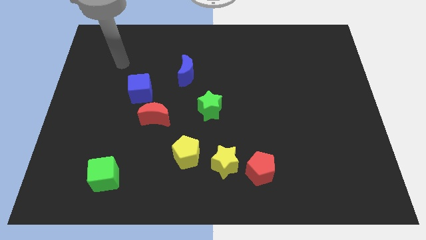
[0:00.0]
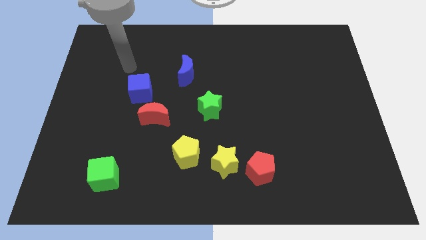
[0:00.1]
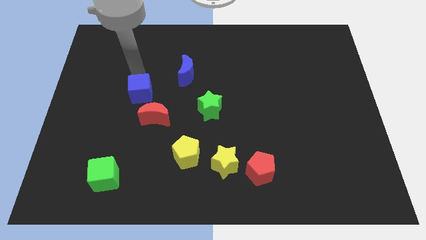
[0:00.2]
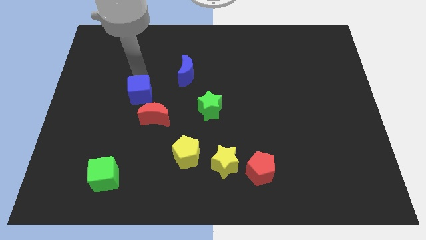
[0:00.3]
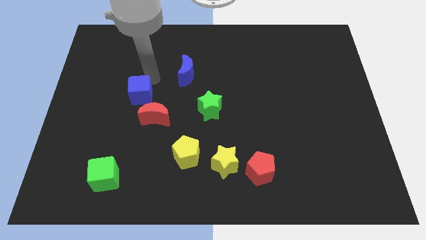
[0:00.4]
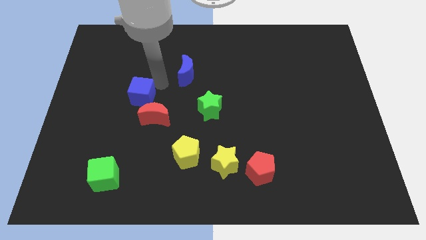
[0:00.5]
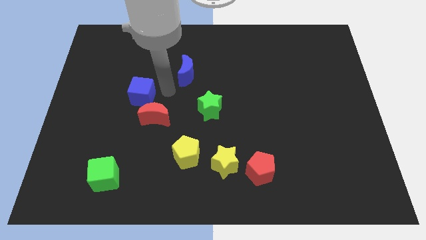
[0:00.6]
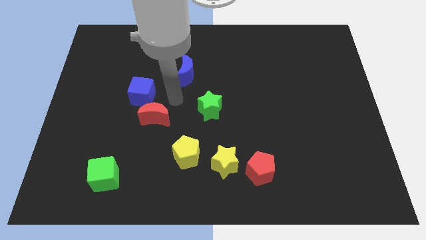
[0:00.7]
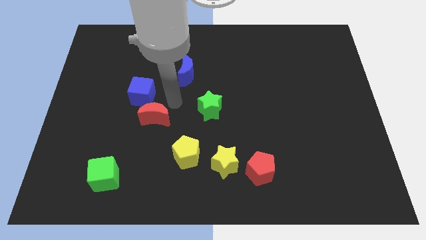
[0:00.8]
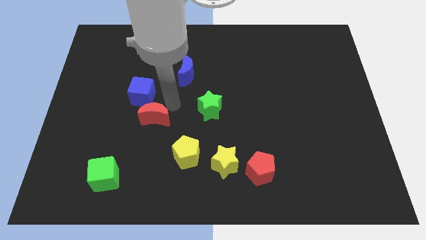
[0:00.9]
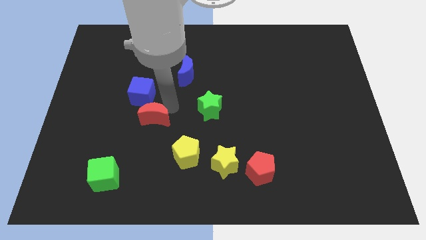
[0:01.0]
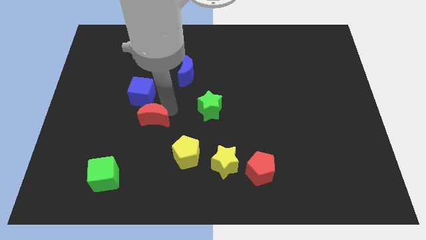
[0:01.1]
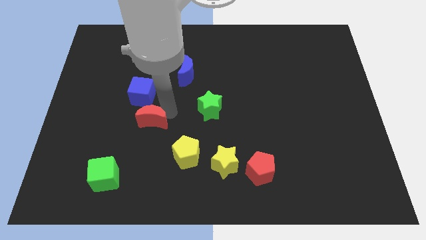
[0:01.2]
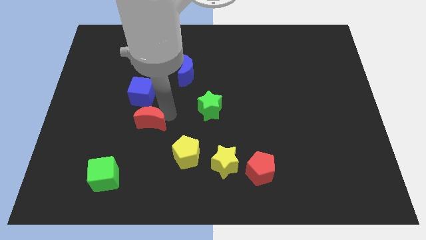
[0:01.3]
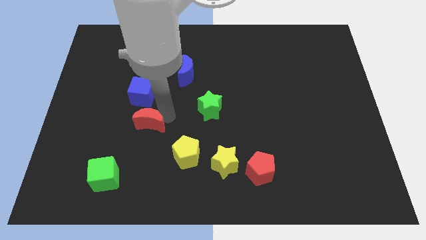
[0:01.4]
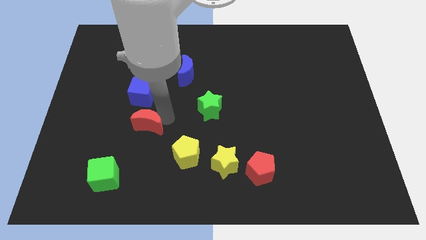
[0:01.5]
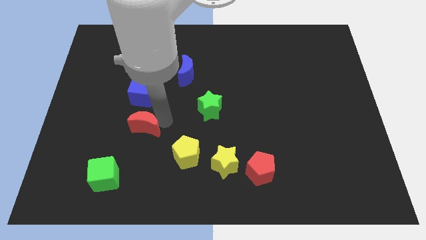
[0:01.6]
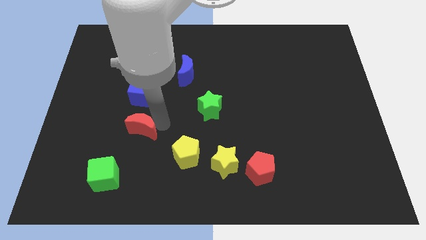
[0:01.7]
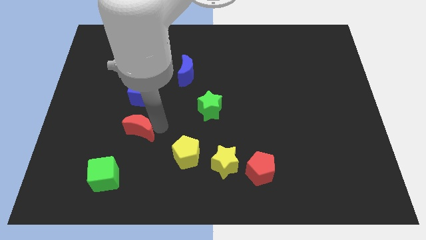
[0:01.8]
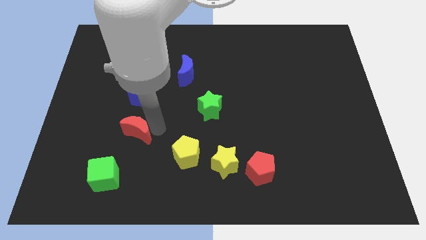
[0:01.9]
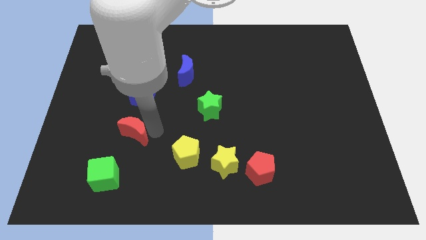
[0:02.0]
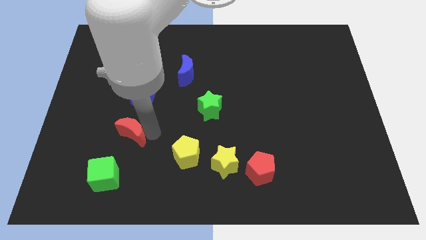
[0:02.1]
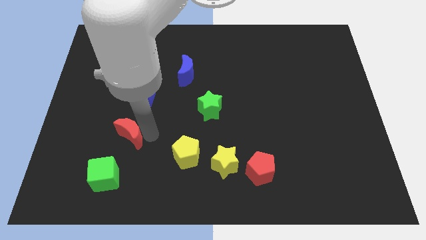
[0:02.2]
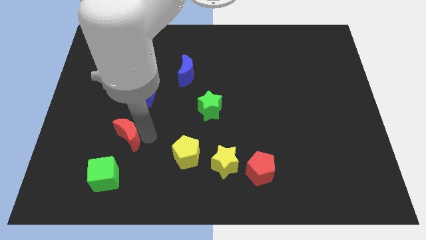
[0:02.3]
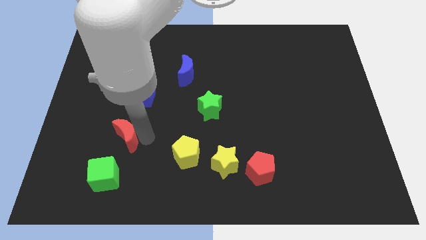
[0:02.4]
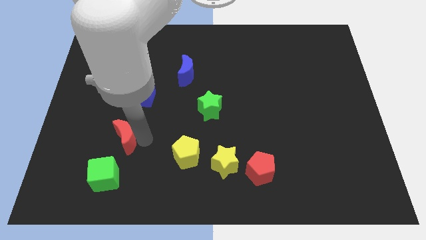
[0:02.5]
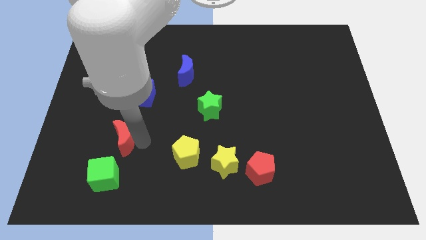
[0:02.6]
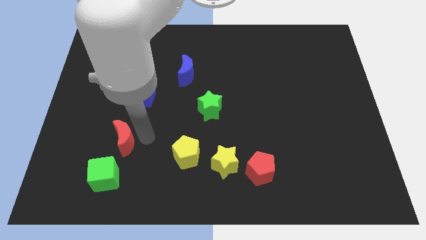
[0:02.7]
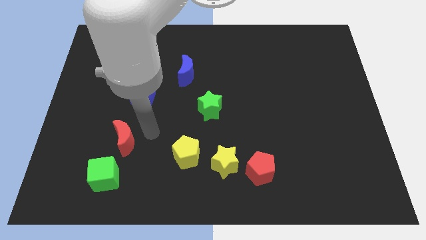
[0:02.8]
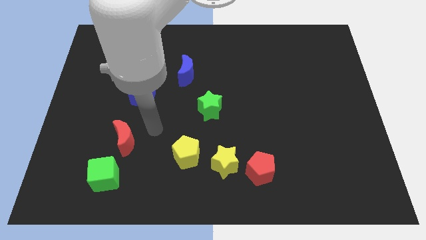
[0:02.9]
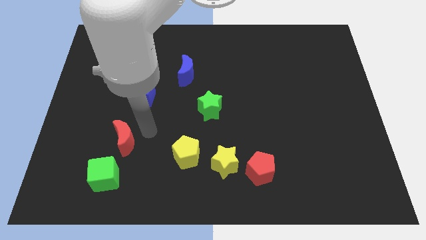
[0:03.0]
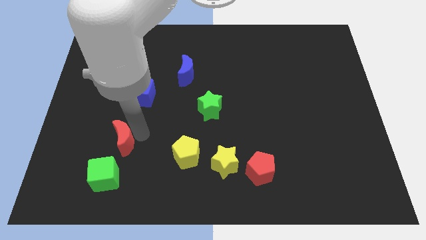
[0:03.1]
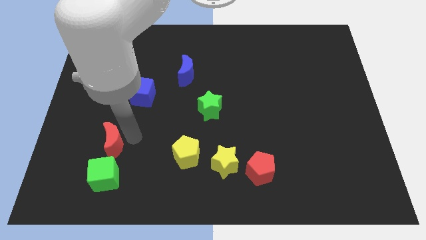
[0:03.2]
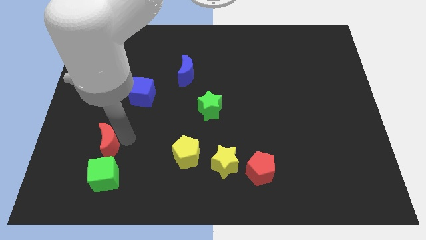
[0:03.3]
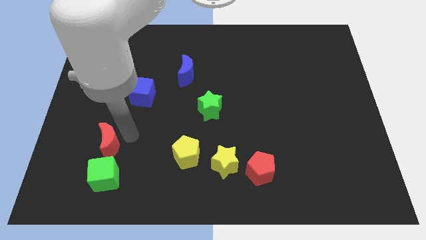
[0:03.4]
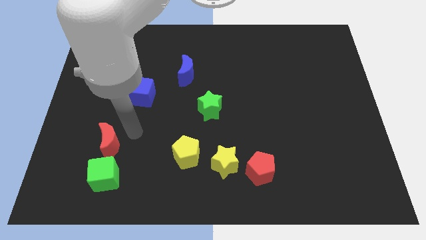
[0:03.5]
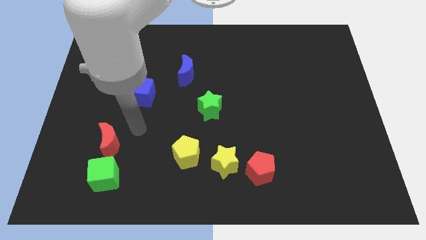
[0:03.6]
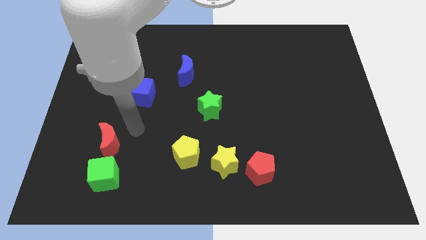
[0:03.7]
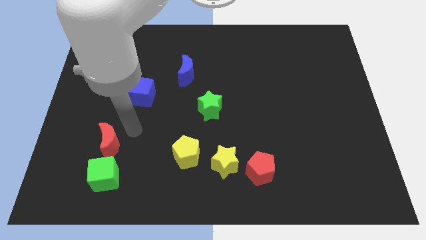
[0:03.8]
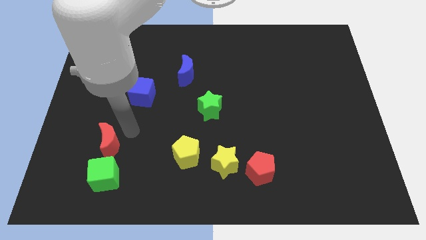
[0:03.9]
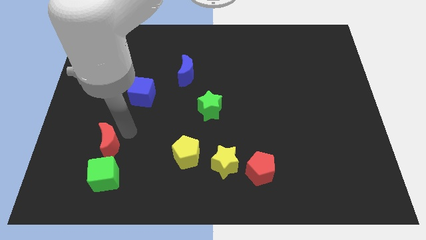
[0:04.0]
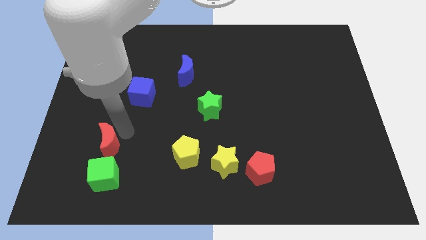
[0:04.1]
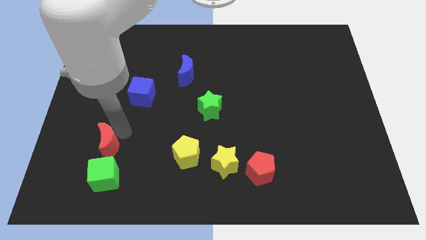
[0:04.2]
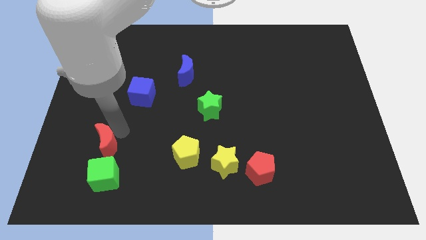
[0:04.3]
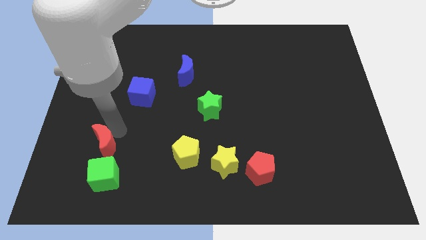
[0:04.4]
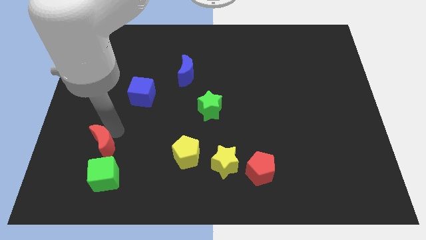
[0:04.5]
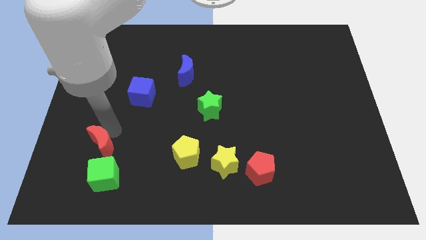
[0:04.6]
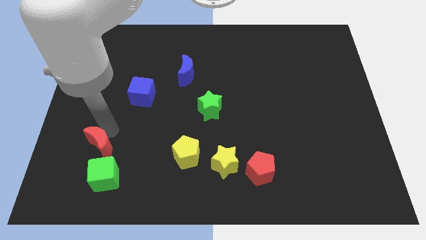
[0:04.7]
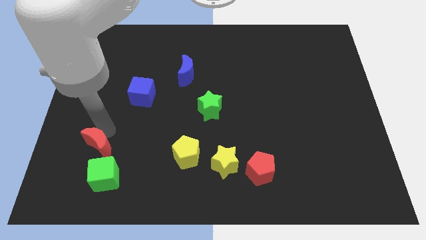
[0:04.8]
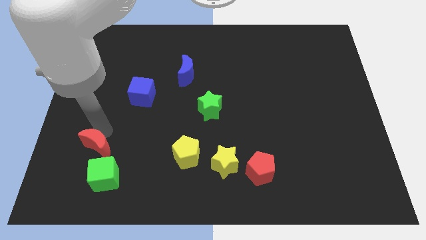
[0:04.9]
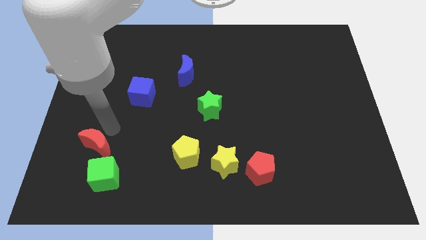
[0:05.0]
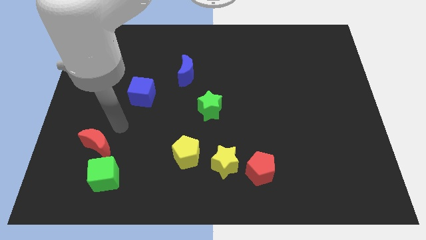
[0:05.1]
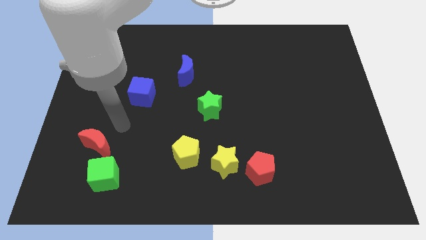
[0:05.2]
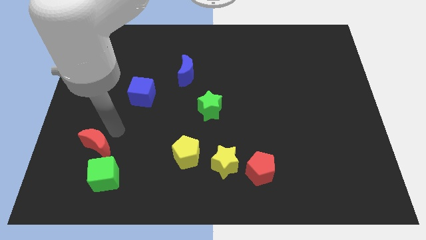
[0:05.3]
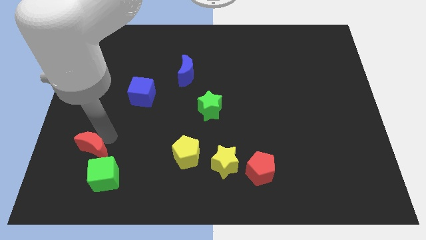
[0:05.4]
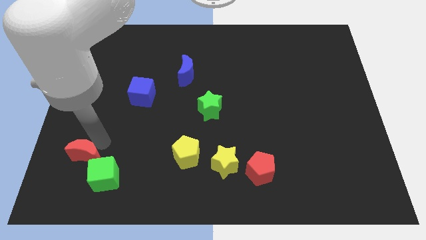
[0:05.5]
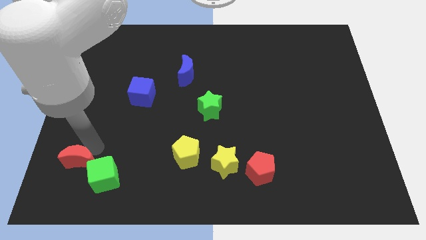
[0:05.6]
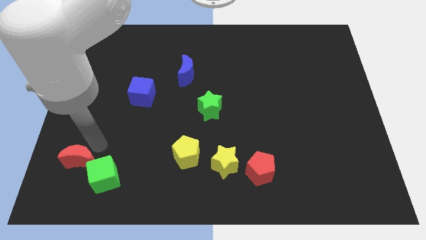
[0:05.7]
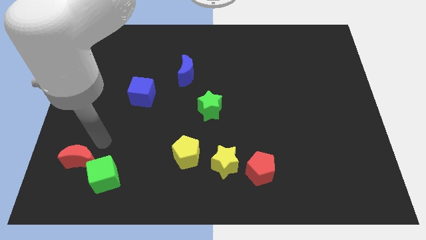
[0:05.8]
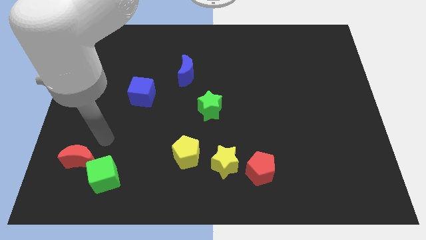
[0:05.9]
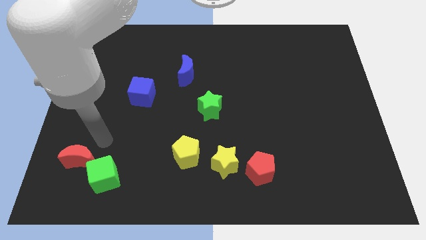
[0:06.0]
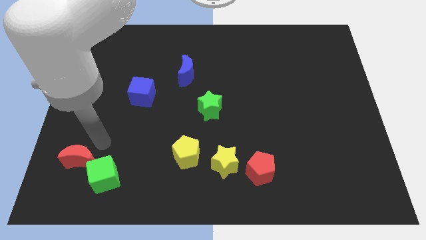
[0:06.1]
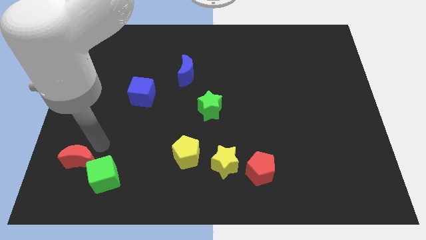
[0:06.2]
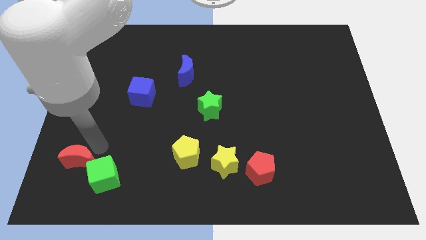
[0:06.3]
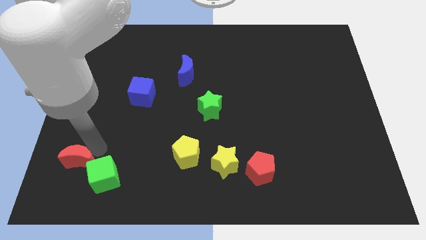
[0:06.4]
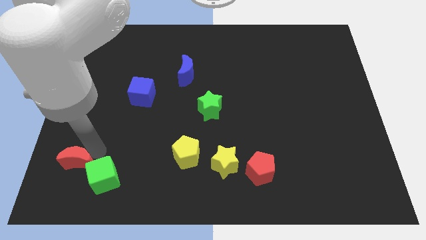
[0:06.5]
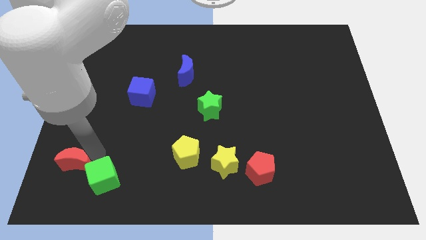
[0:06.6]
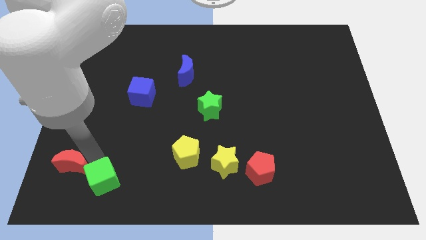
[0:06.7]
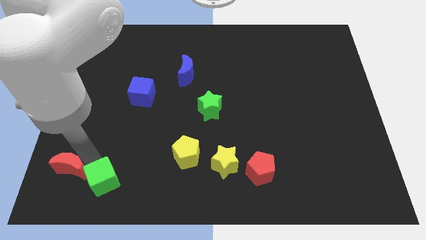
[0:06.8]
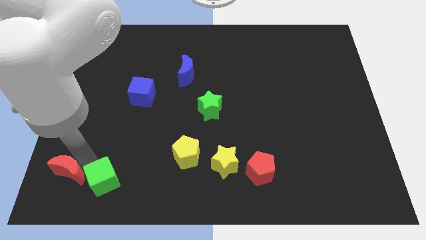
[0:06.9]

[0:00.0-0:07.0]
move the red moon to the lower left corner

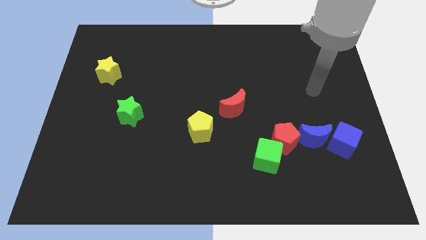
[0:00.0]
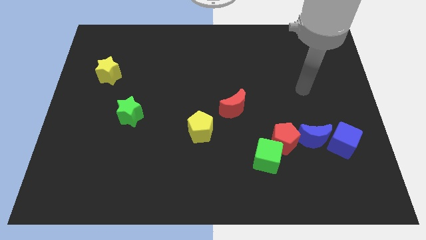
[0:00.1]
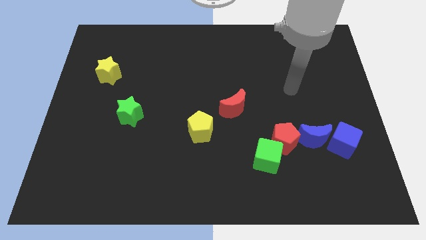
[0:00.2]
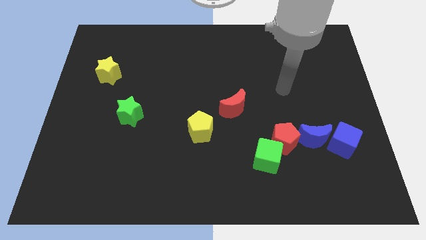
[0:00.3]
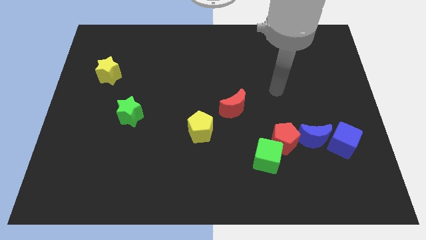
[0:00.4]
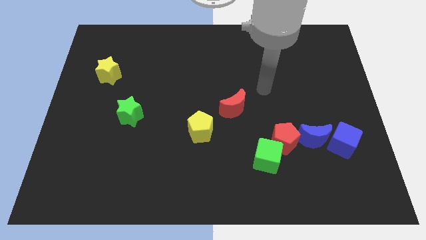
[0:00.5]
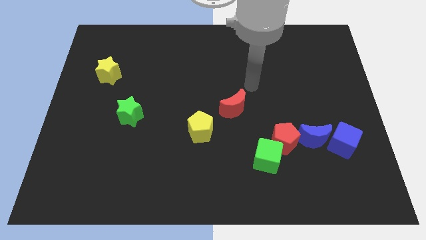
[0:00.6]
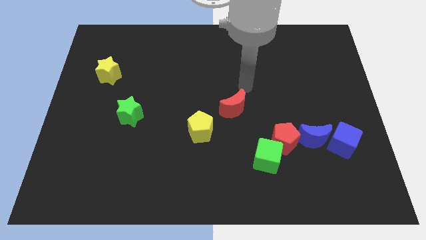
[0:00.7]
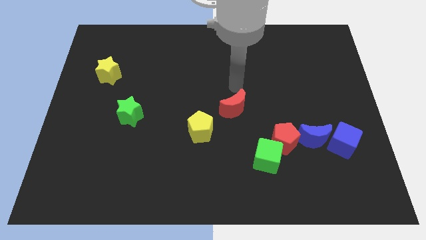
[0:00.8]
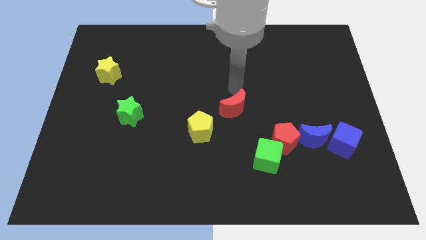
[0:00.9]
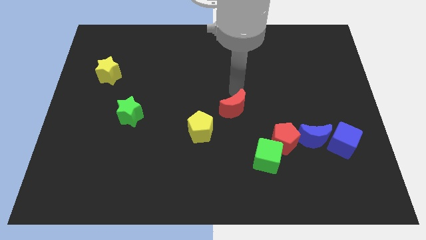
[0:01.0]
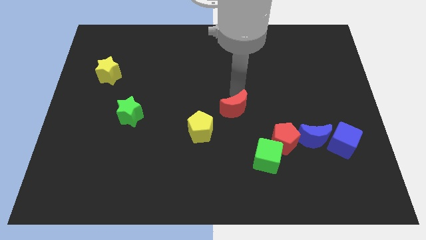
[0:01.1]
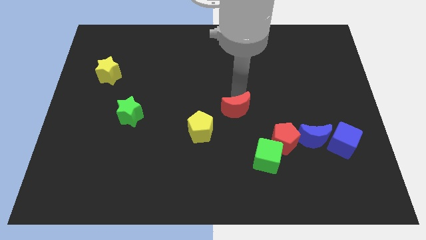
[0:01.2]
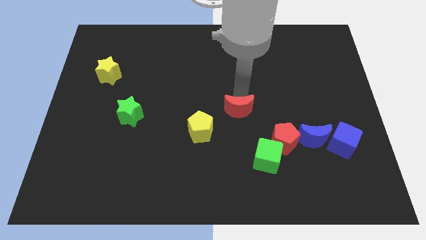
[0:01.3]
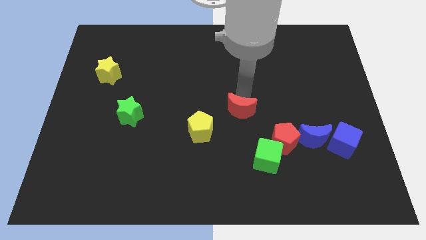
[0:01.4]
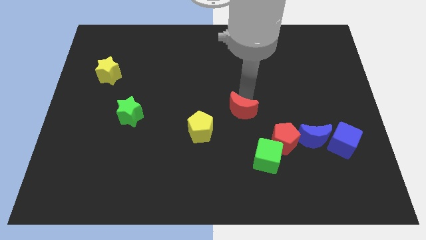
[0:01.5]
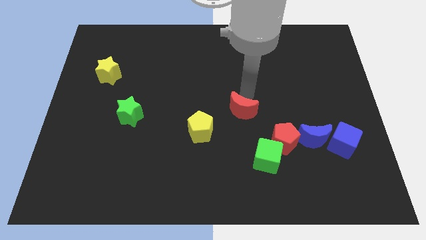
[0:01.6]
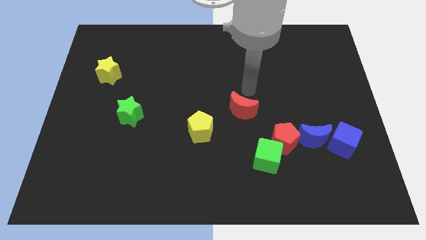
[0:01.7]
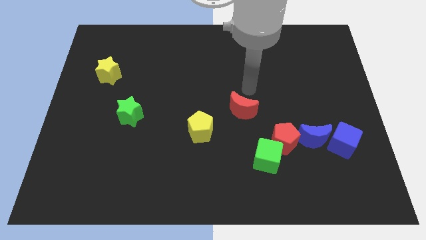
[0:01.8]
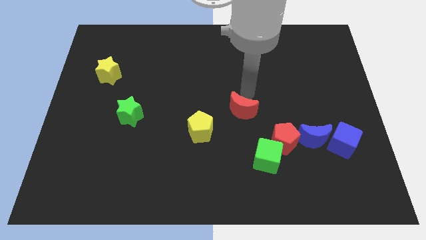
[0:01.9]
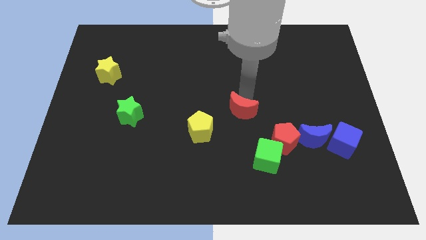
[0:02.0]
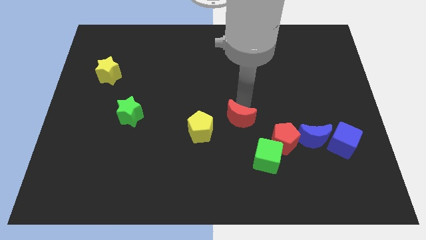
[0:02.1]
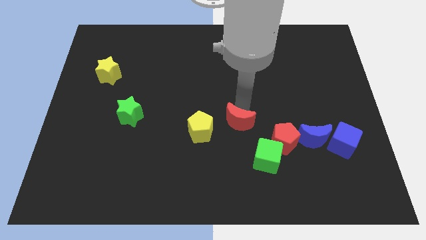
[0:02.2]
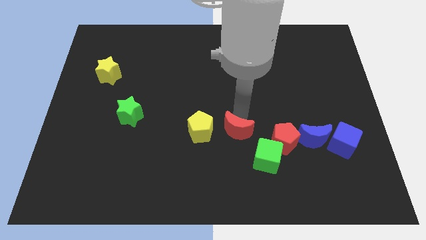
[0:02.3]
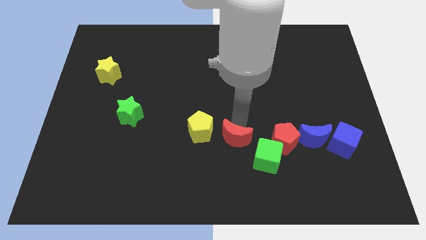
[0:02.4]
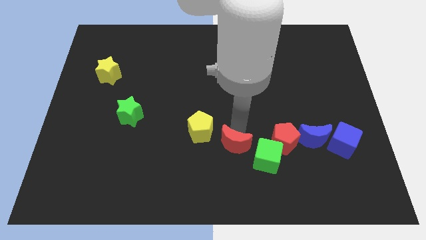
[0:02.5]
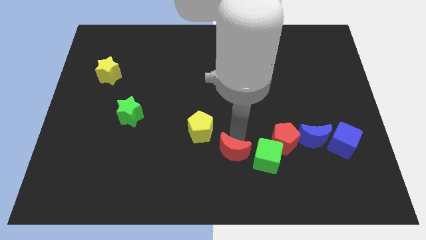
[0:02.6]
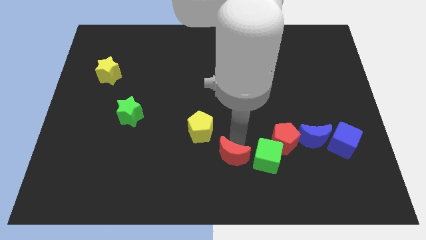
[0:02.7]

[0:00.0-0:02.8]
put the red moon to the bottom
